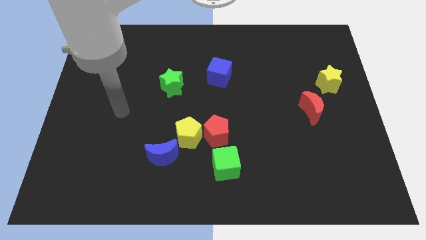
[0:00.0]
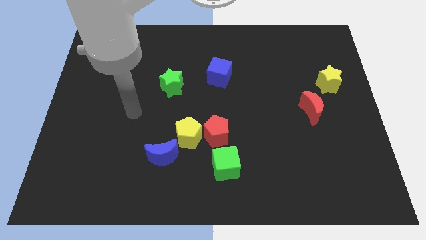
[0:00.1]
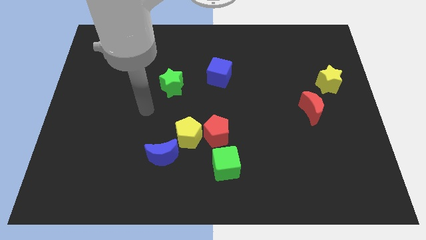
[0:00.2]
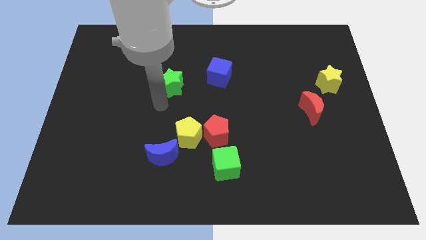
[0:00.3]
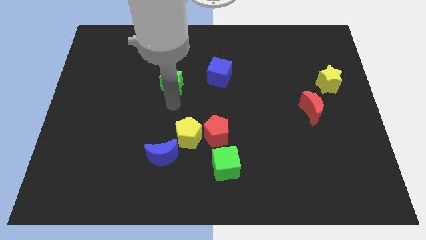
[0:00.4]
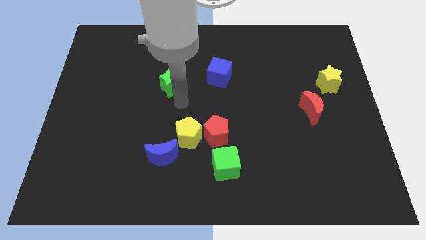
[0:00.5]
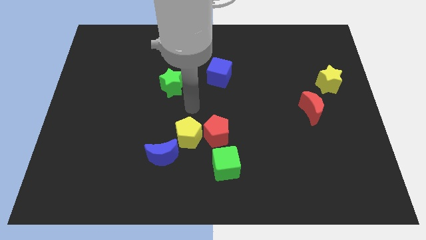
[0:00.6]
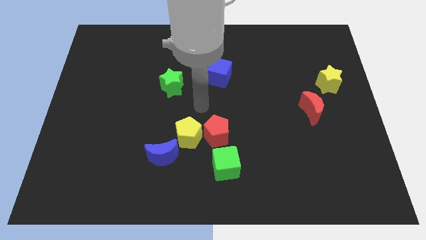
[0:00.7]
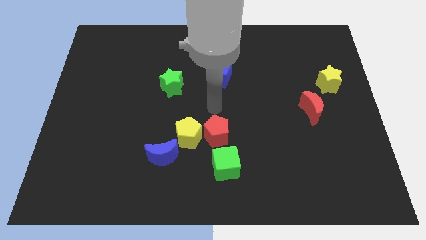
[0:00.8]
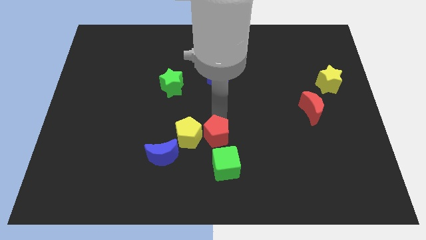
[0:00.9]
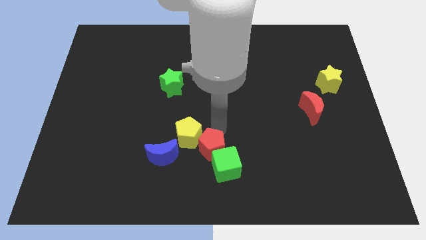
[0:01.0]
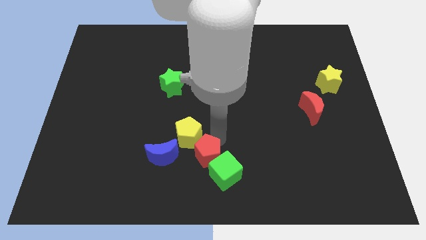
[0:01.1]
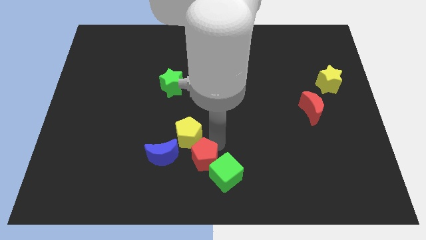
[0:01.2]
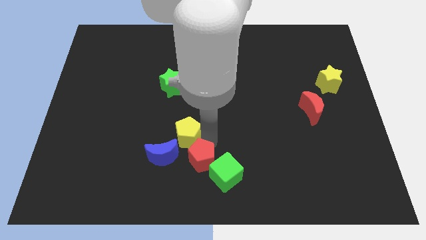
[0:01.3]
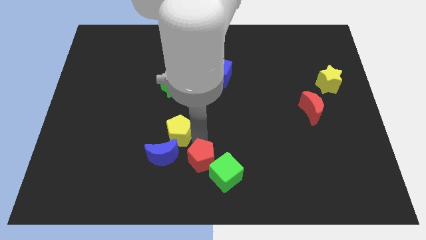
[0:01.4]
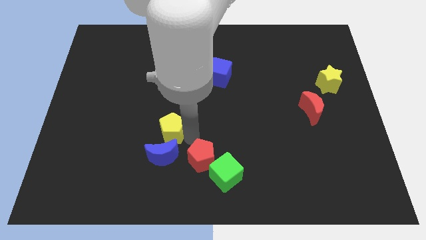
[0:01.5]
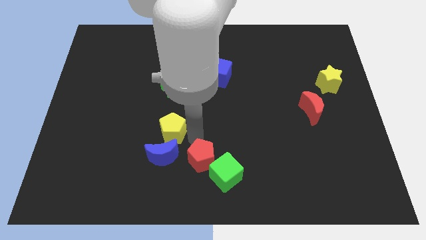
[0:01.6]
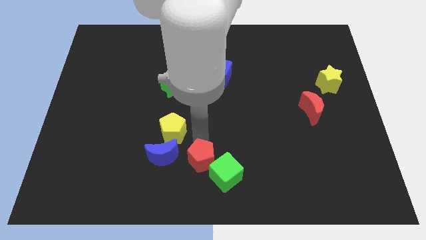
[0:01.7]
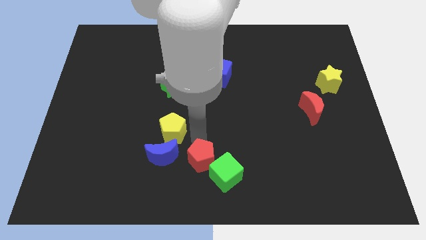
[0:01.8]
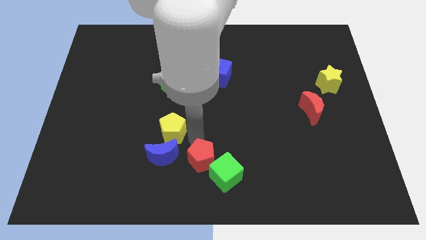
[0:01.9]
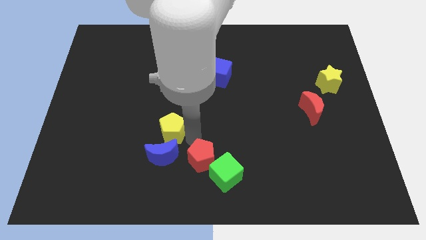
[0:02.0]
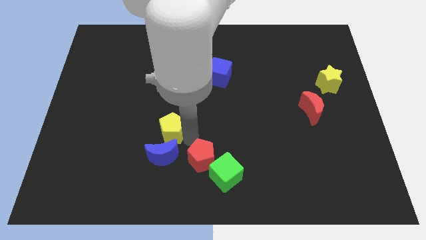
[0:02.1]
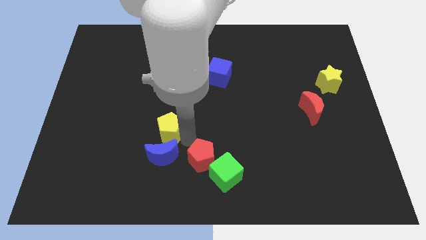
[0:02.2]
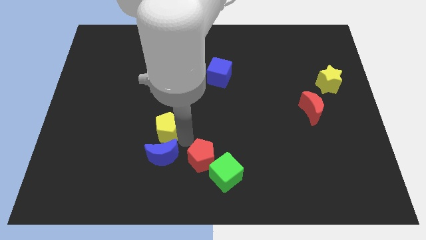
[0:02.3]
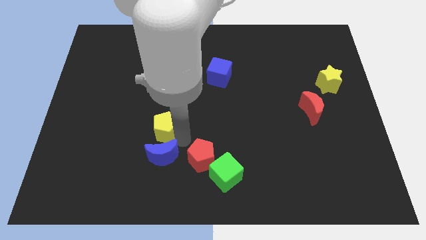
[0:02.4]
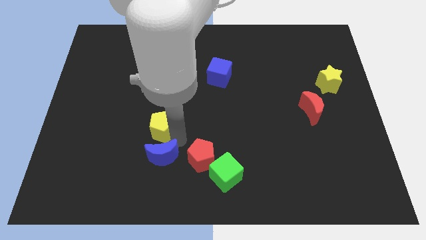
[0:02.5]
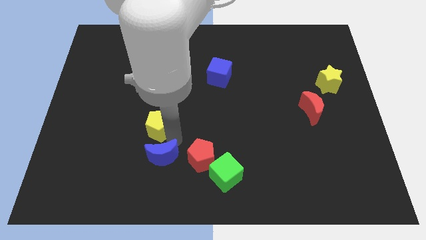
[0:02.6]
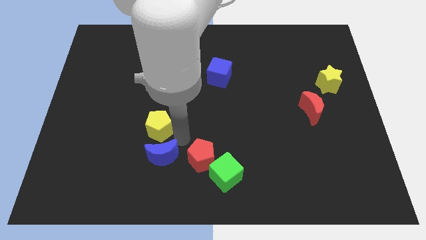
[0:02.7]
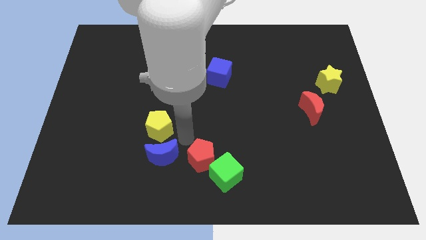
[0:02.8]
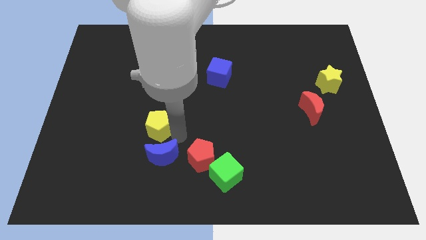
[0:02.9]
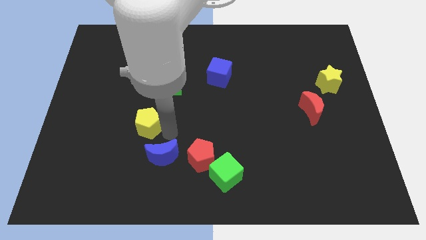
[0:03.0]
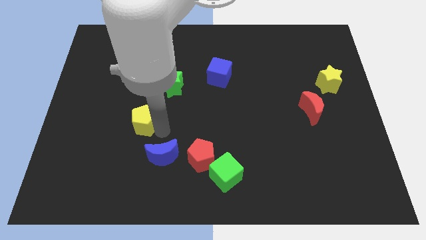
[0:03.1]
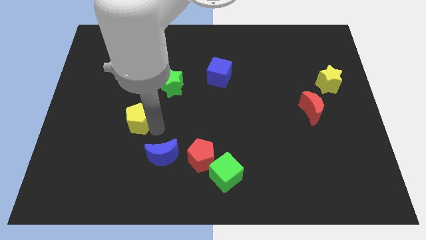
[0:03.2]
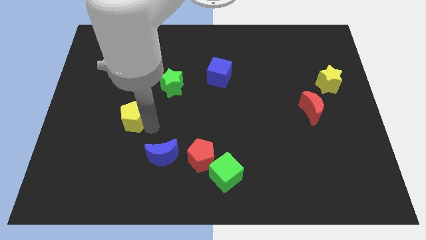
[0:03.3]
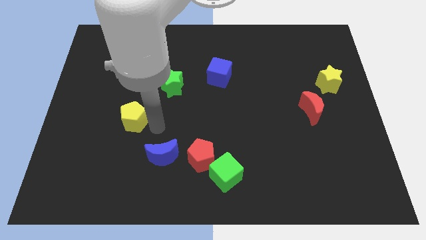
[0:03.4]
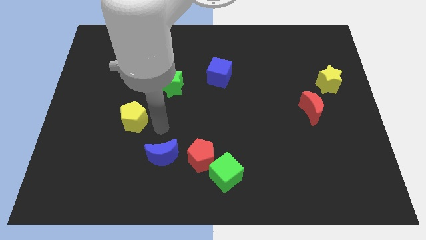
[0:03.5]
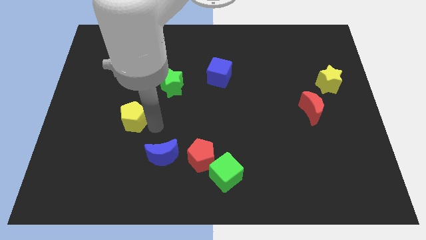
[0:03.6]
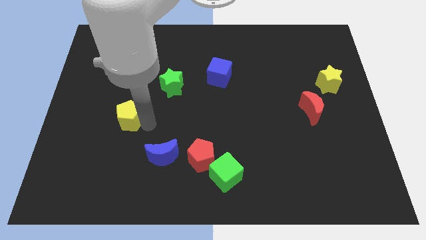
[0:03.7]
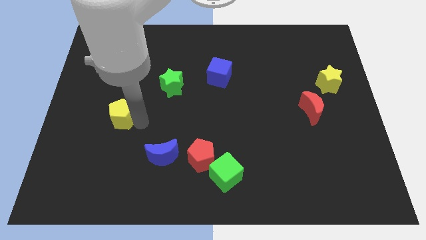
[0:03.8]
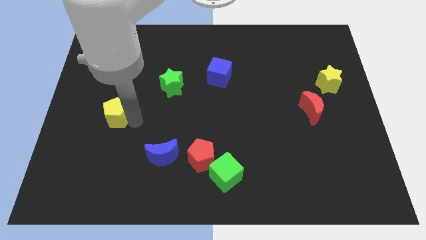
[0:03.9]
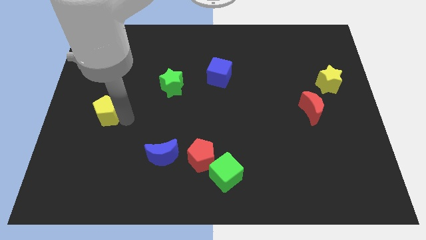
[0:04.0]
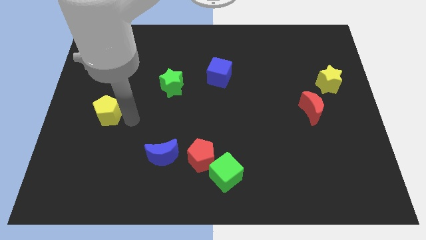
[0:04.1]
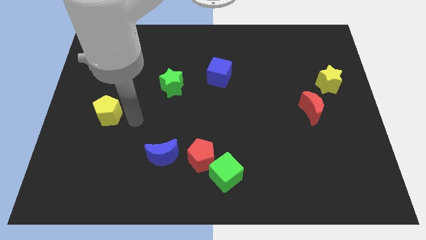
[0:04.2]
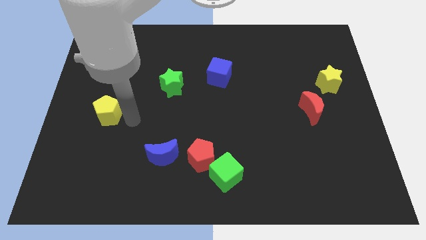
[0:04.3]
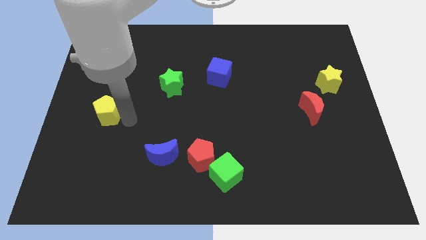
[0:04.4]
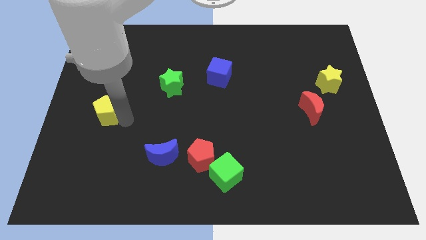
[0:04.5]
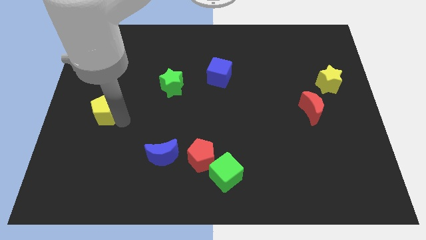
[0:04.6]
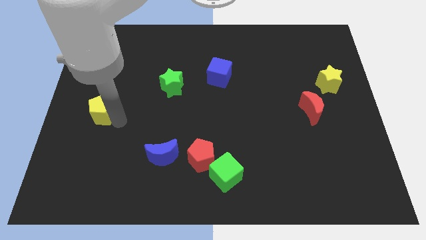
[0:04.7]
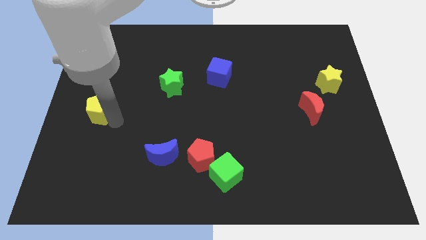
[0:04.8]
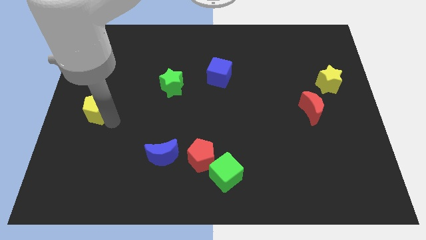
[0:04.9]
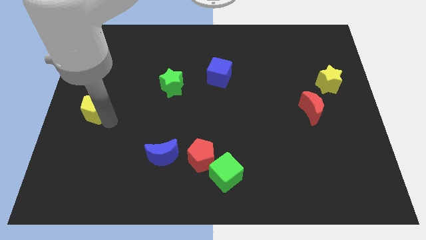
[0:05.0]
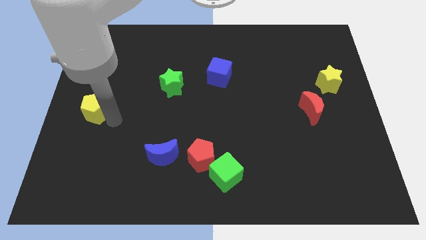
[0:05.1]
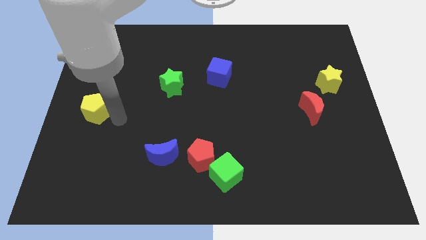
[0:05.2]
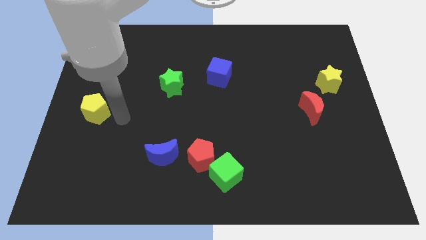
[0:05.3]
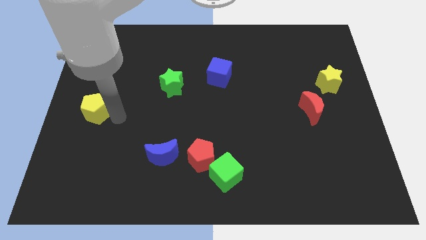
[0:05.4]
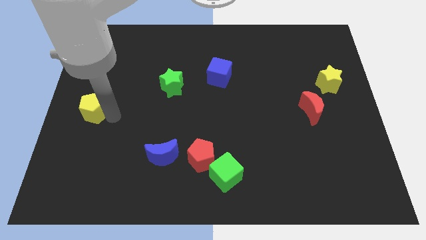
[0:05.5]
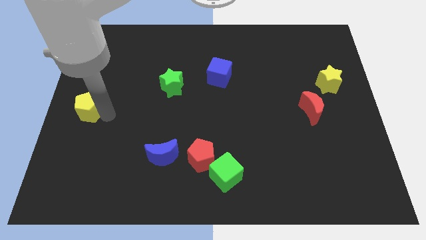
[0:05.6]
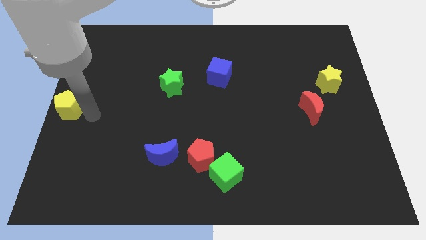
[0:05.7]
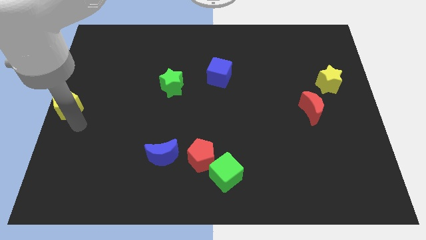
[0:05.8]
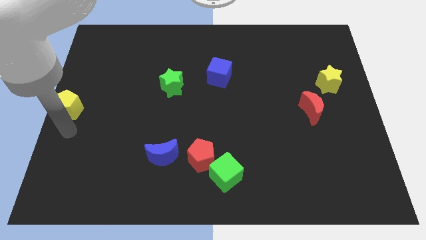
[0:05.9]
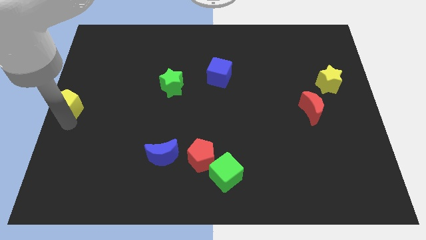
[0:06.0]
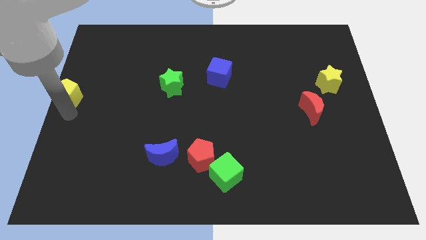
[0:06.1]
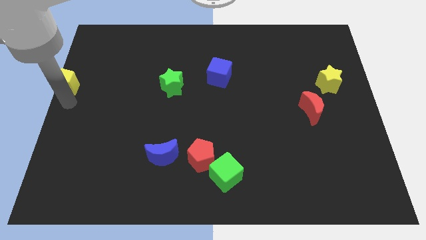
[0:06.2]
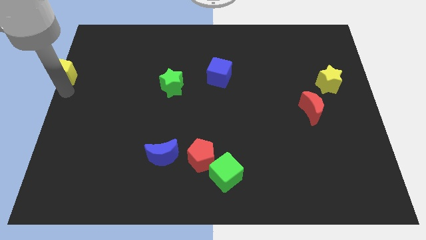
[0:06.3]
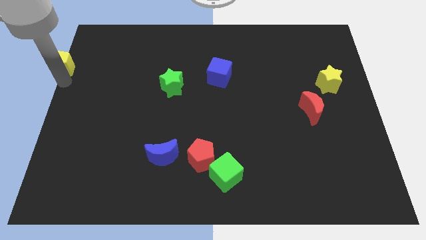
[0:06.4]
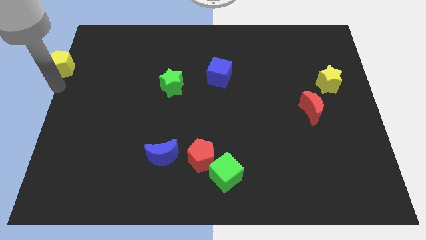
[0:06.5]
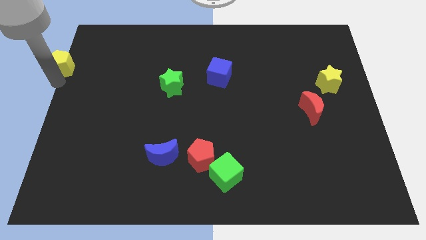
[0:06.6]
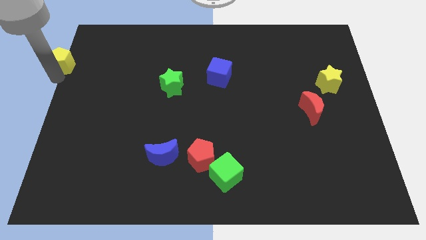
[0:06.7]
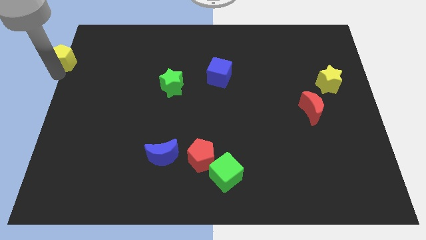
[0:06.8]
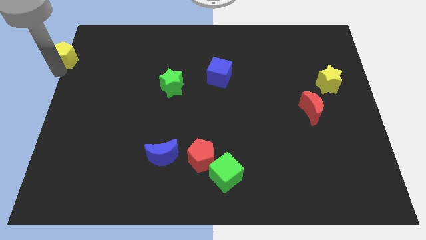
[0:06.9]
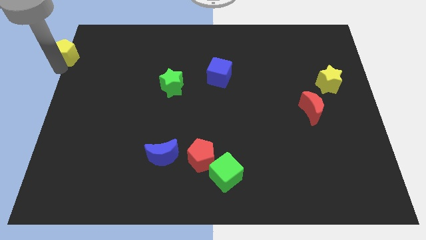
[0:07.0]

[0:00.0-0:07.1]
slide the yellow pentagon to the top left of the board
